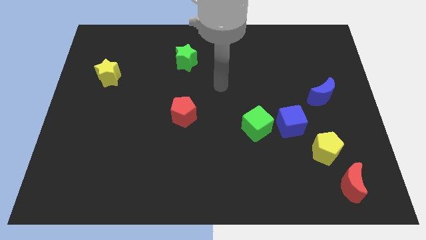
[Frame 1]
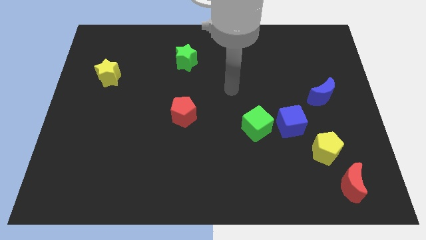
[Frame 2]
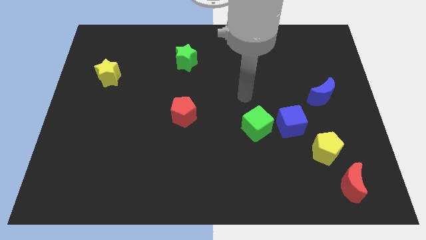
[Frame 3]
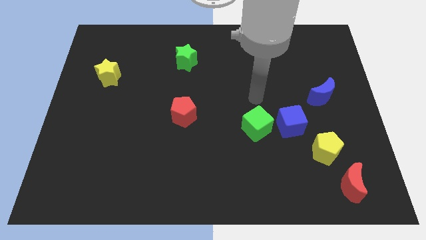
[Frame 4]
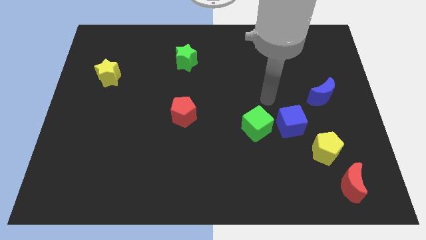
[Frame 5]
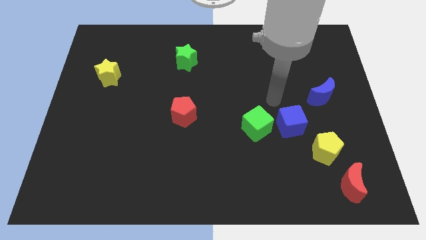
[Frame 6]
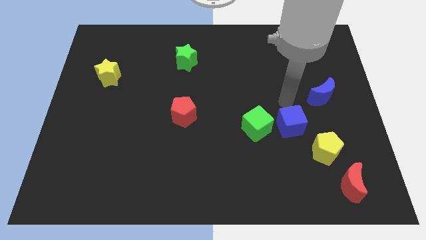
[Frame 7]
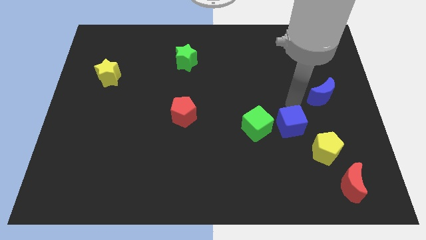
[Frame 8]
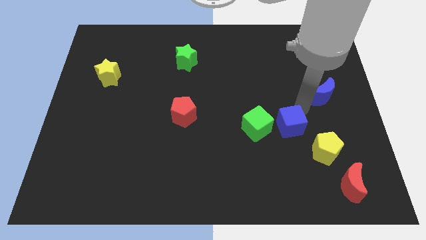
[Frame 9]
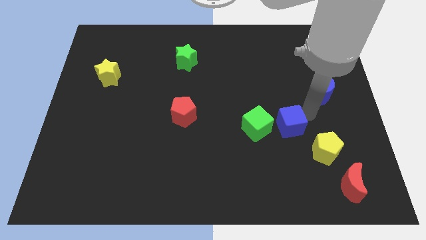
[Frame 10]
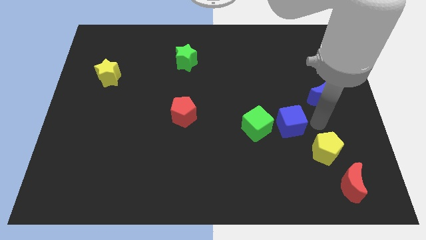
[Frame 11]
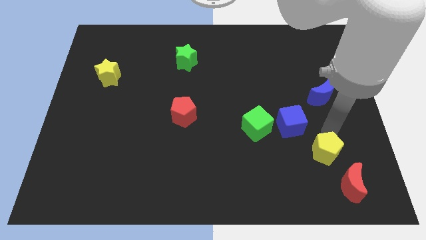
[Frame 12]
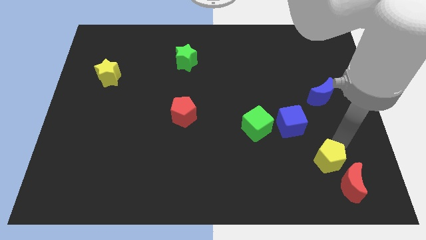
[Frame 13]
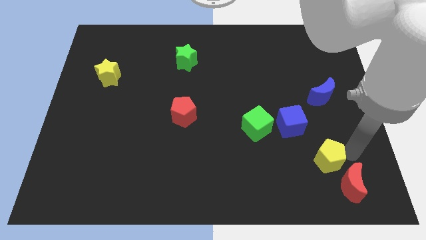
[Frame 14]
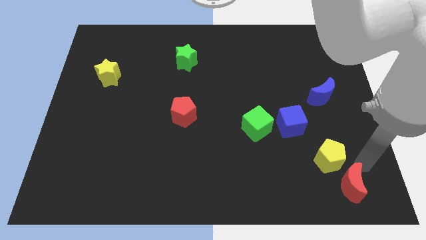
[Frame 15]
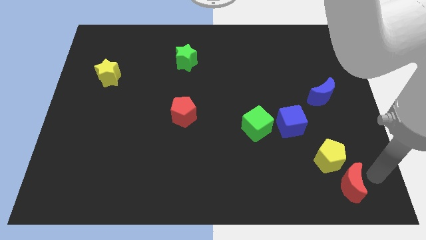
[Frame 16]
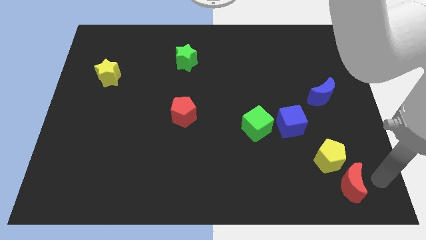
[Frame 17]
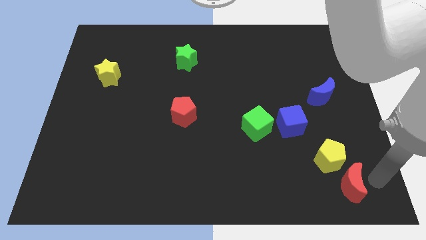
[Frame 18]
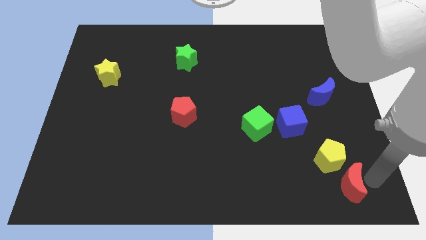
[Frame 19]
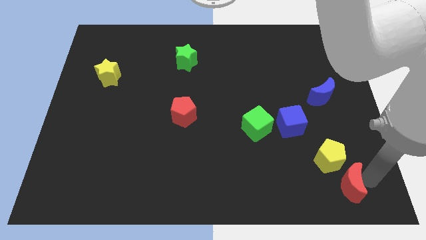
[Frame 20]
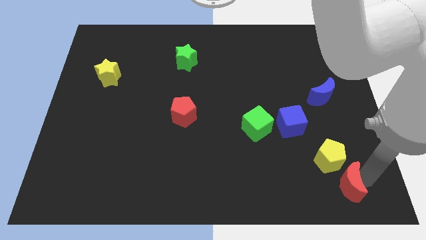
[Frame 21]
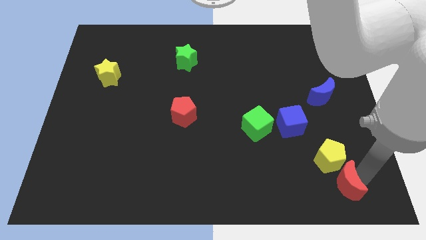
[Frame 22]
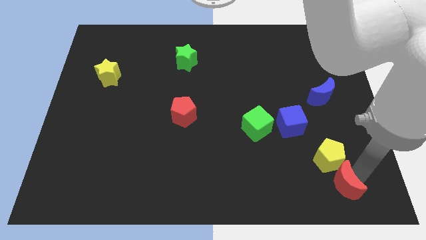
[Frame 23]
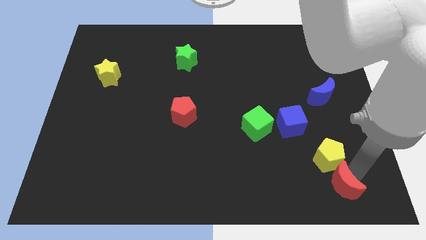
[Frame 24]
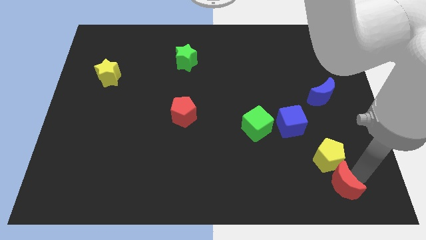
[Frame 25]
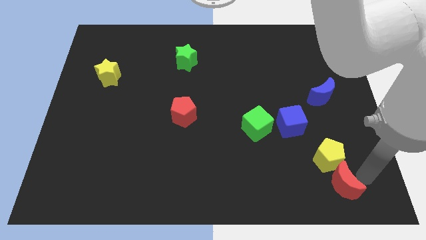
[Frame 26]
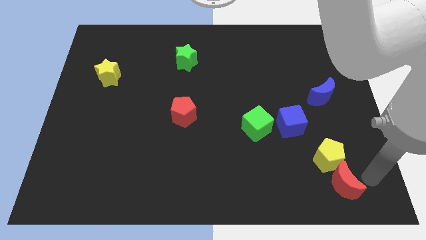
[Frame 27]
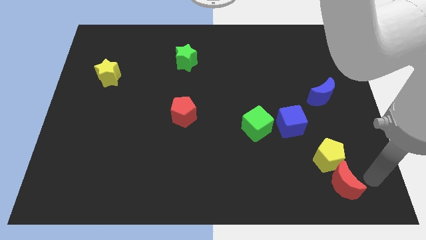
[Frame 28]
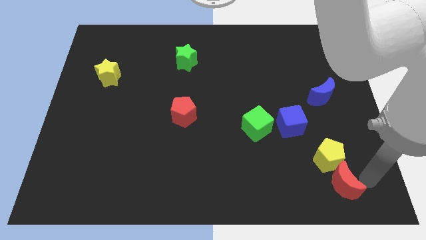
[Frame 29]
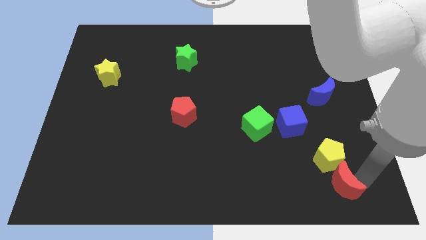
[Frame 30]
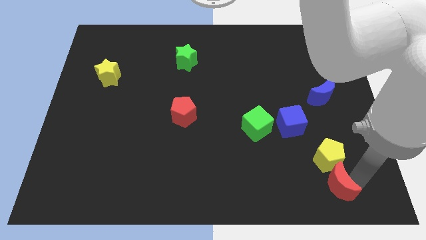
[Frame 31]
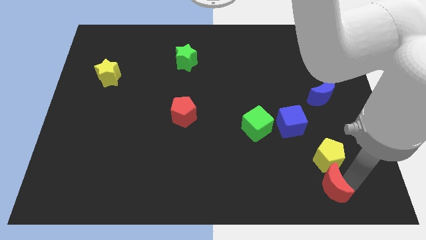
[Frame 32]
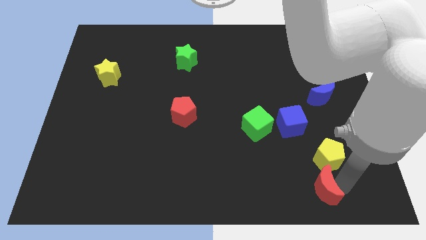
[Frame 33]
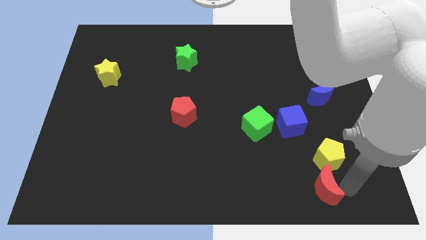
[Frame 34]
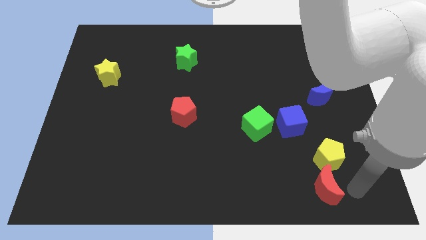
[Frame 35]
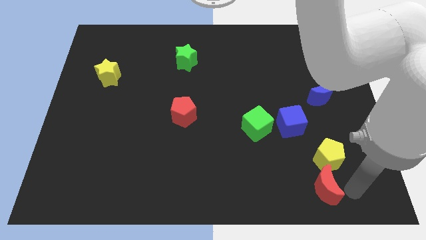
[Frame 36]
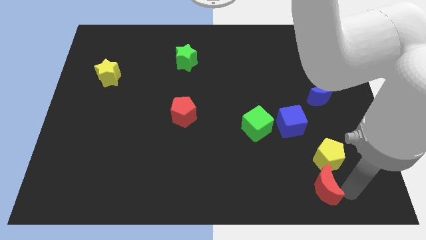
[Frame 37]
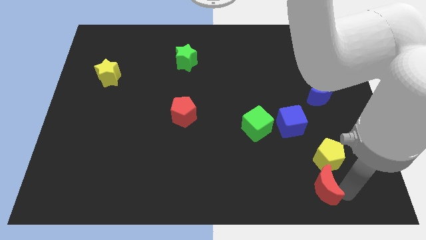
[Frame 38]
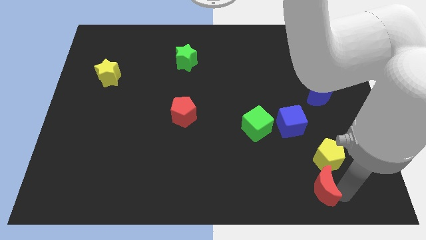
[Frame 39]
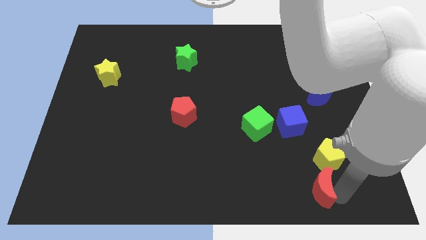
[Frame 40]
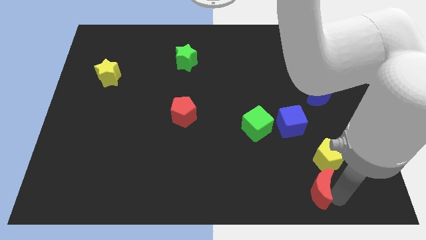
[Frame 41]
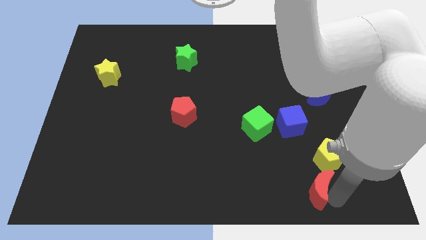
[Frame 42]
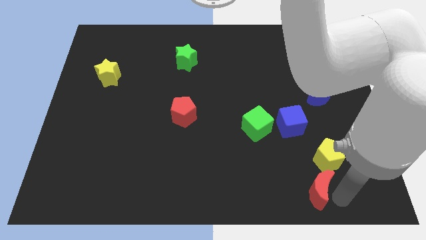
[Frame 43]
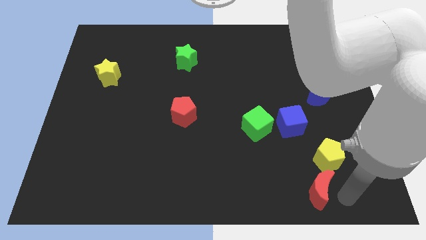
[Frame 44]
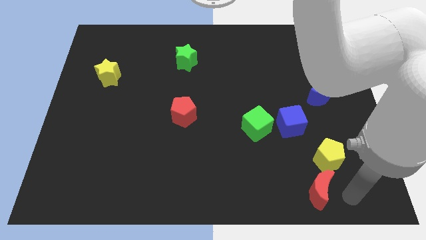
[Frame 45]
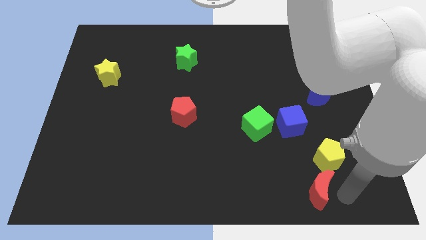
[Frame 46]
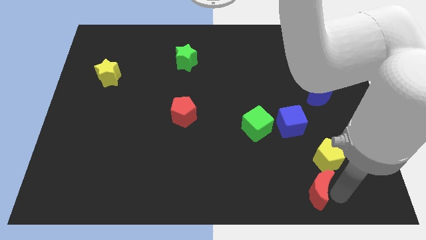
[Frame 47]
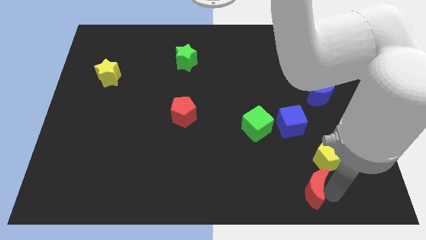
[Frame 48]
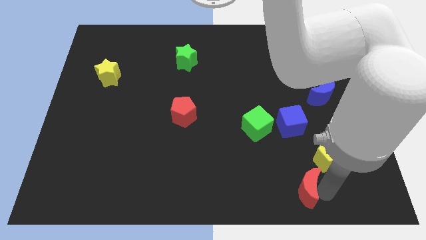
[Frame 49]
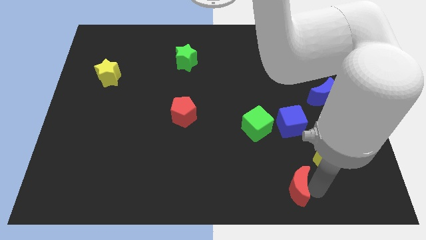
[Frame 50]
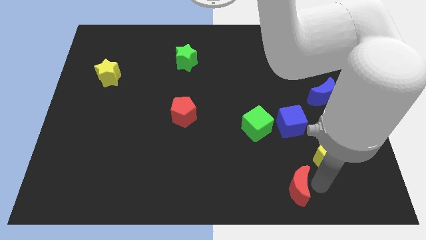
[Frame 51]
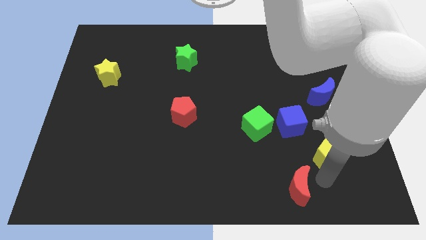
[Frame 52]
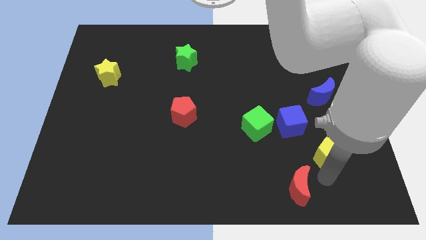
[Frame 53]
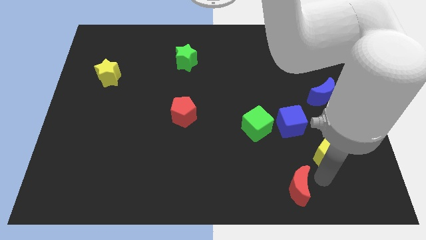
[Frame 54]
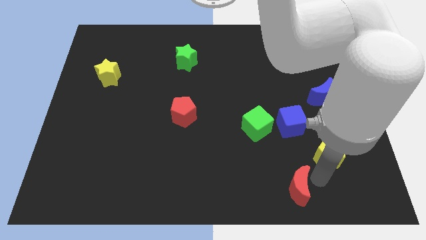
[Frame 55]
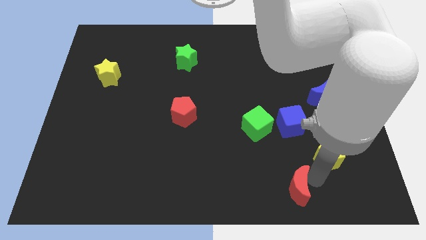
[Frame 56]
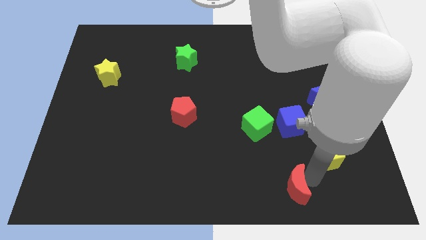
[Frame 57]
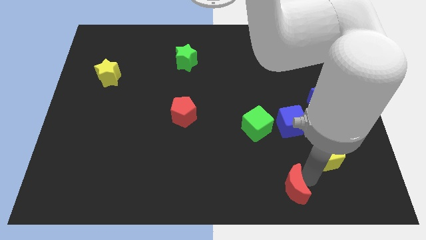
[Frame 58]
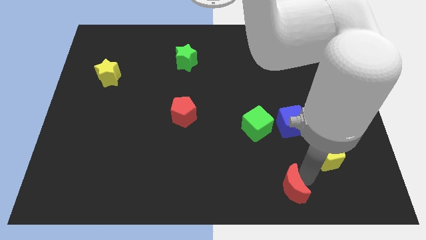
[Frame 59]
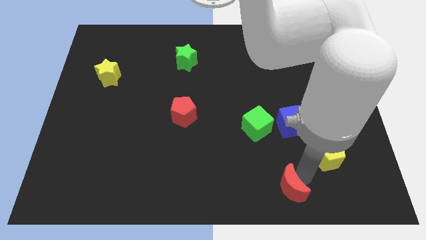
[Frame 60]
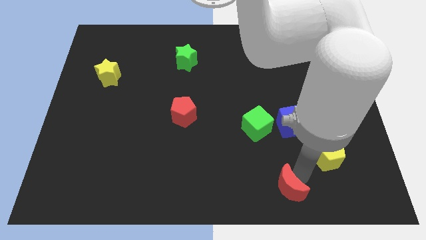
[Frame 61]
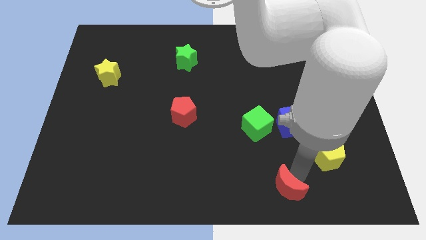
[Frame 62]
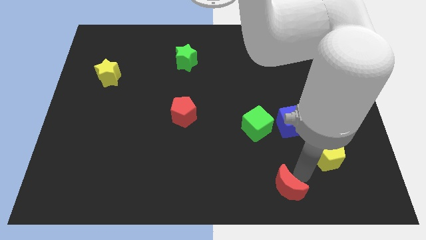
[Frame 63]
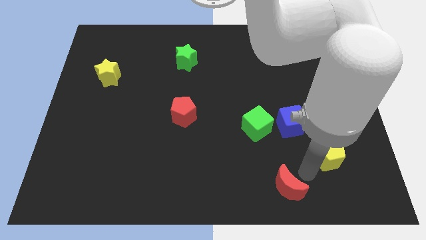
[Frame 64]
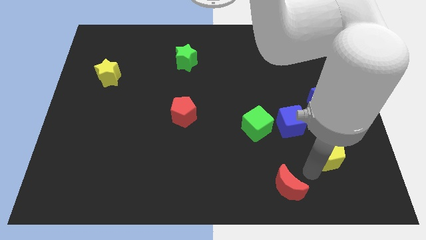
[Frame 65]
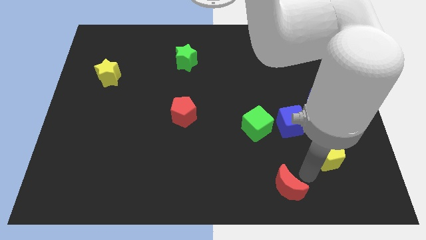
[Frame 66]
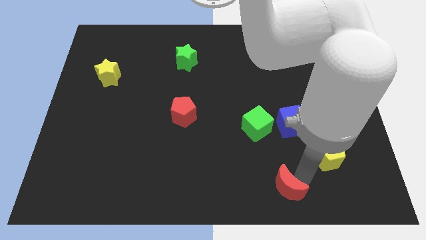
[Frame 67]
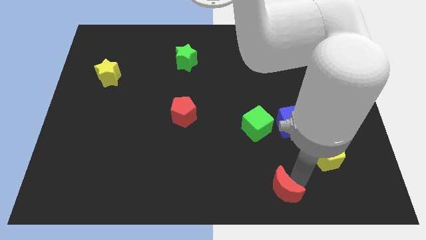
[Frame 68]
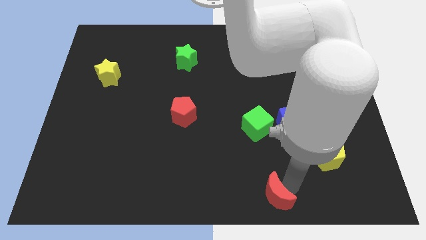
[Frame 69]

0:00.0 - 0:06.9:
slide the red moon to the bottom
